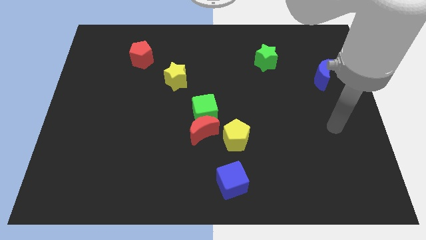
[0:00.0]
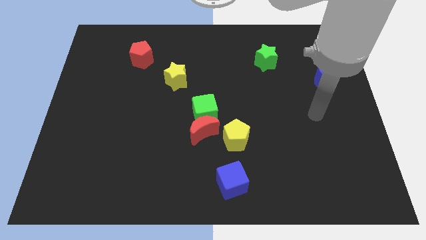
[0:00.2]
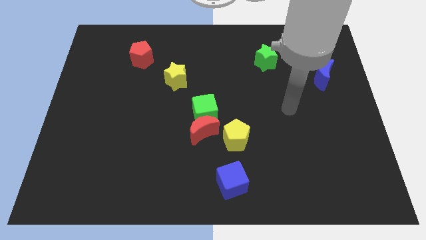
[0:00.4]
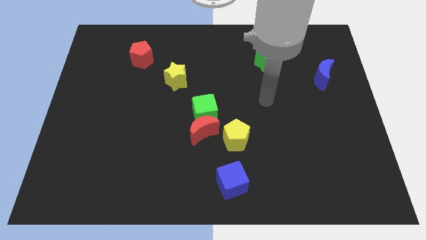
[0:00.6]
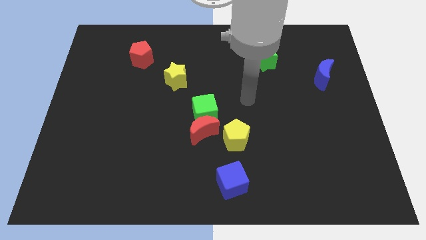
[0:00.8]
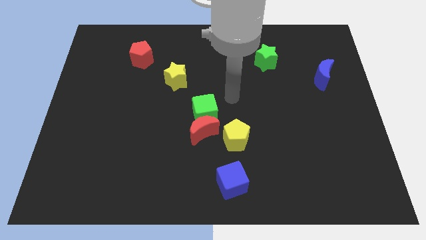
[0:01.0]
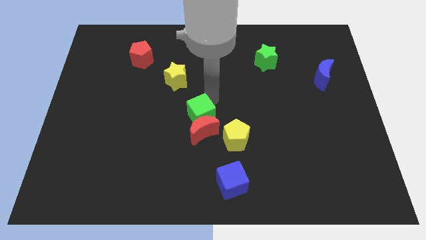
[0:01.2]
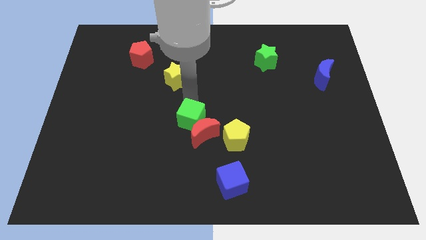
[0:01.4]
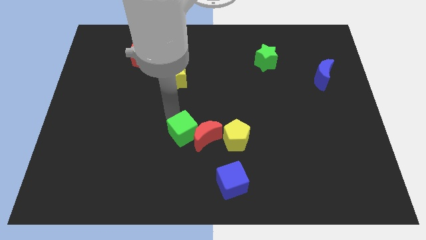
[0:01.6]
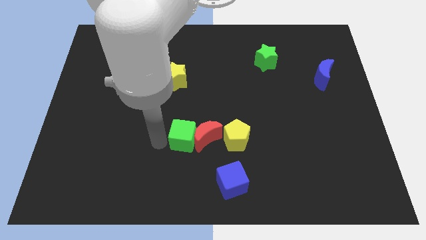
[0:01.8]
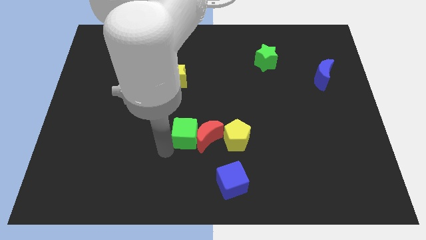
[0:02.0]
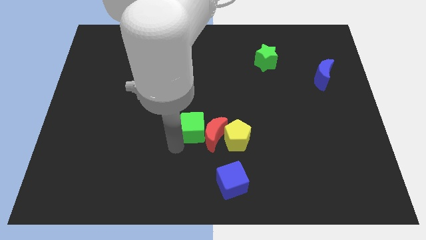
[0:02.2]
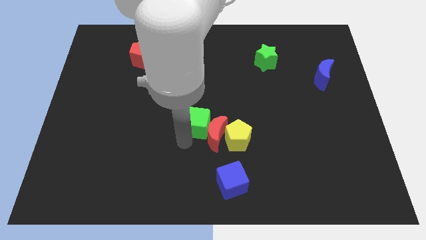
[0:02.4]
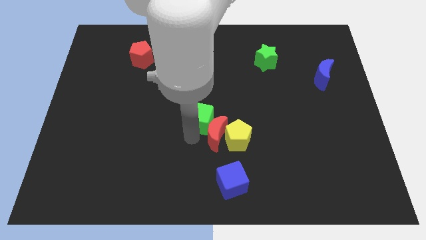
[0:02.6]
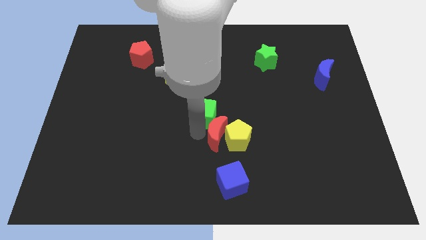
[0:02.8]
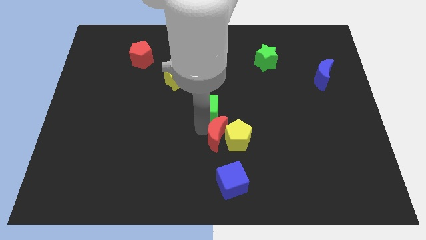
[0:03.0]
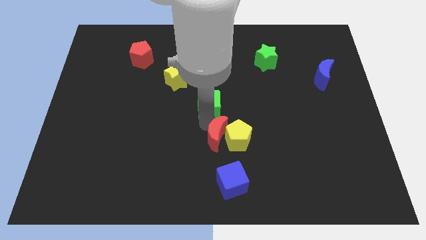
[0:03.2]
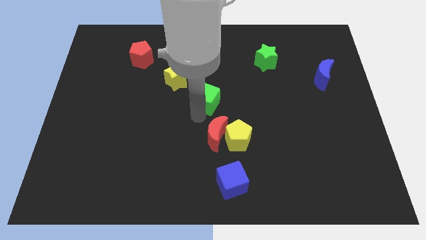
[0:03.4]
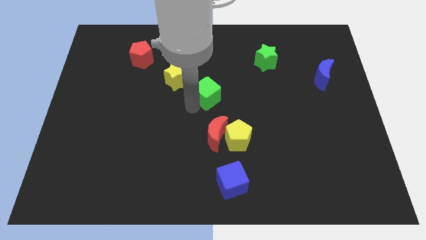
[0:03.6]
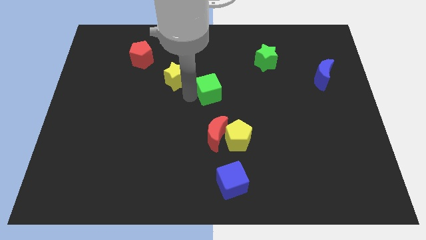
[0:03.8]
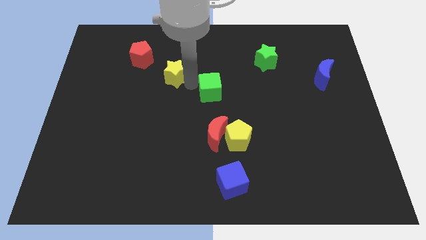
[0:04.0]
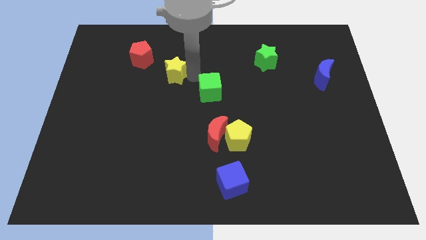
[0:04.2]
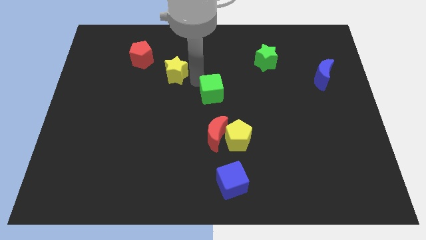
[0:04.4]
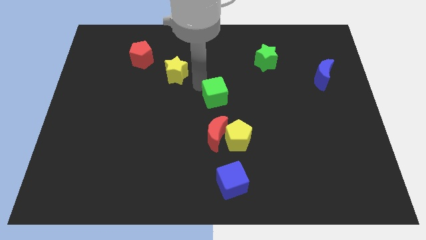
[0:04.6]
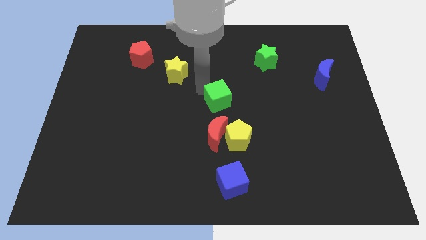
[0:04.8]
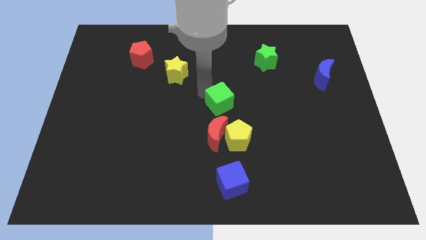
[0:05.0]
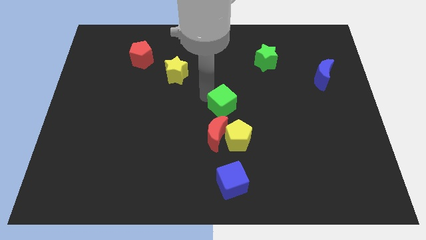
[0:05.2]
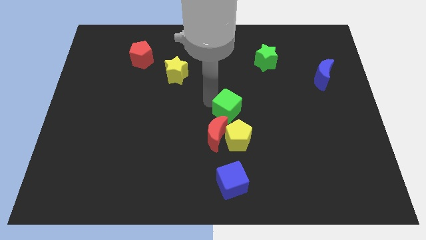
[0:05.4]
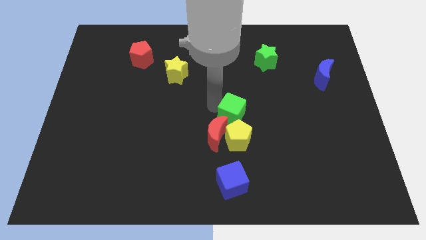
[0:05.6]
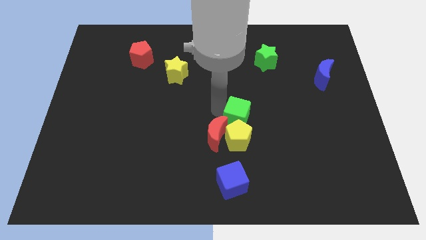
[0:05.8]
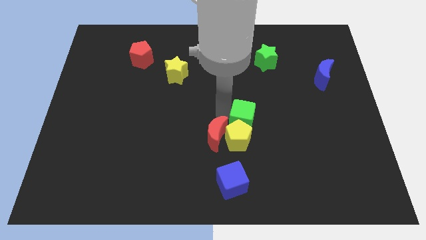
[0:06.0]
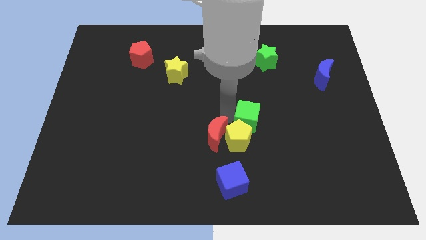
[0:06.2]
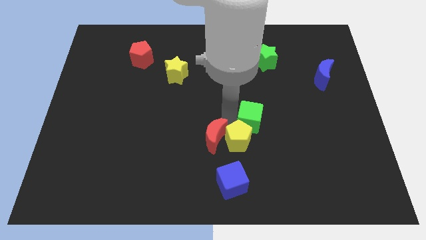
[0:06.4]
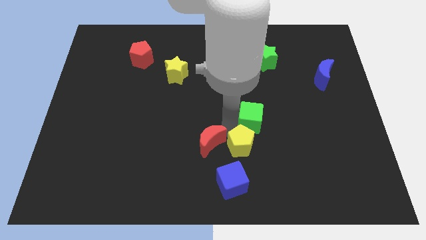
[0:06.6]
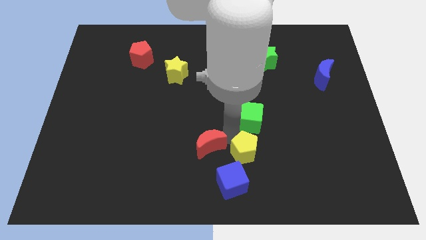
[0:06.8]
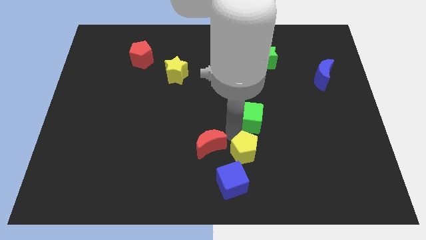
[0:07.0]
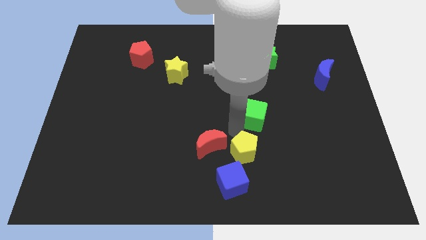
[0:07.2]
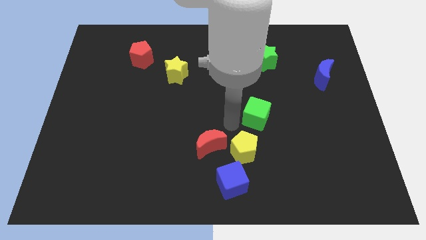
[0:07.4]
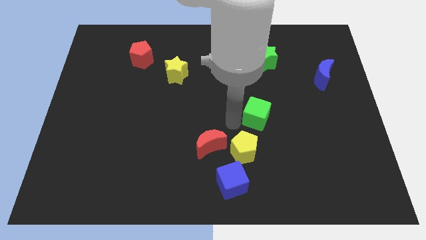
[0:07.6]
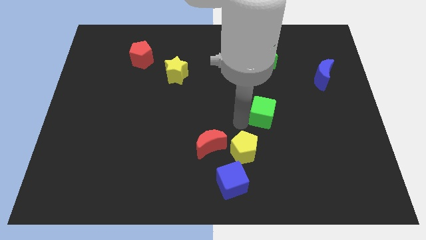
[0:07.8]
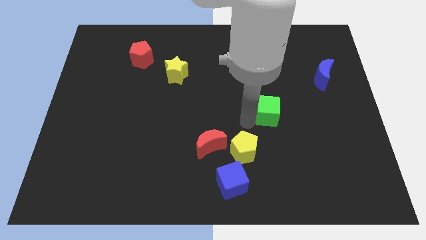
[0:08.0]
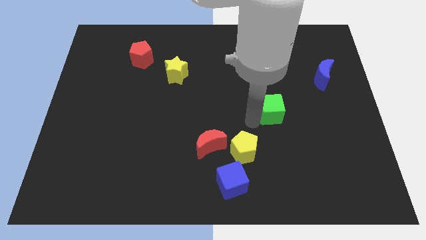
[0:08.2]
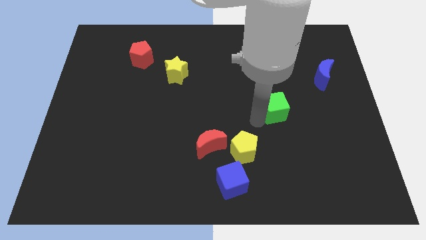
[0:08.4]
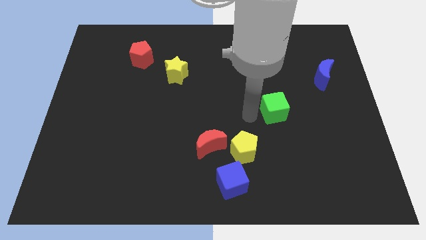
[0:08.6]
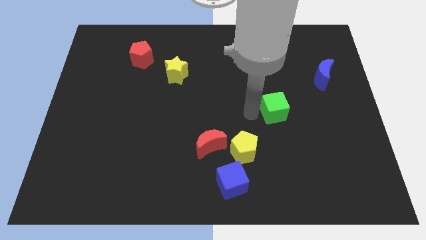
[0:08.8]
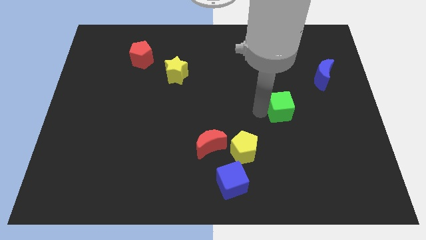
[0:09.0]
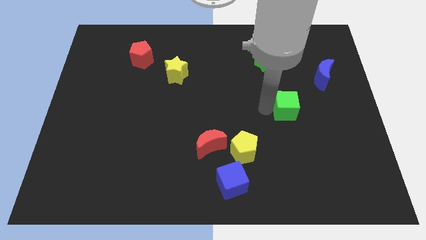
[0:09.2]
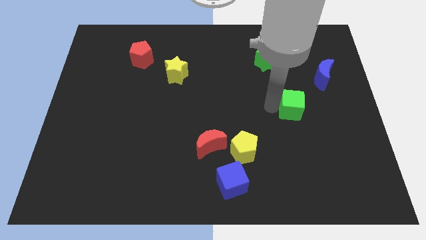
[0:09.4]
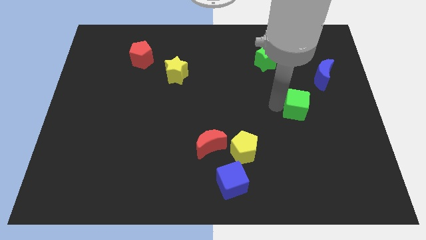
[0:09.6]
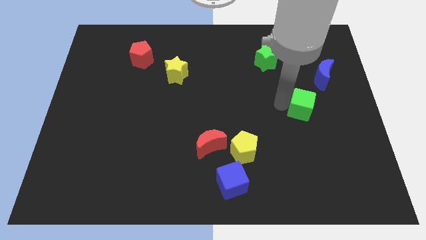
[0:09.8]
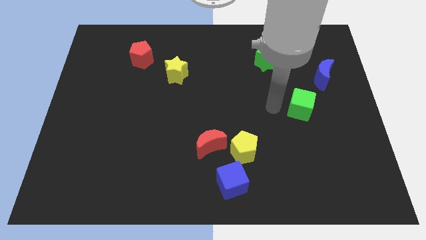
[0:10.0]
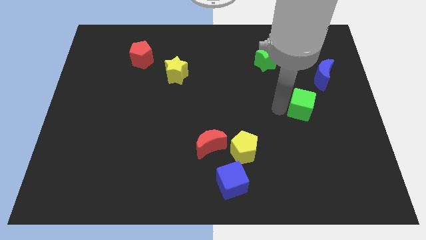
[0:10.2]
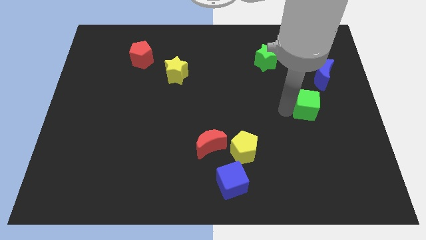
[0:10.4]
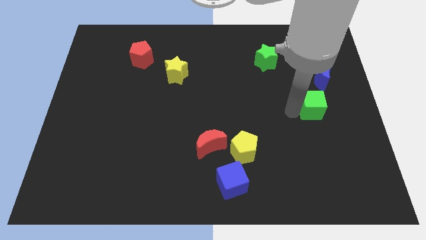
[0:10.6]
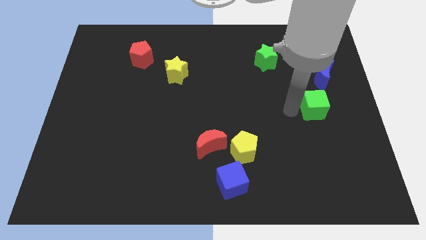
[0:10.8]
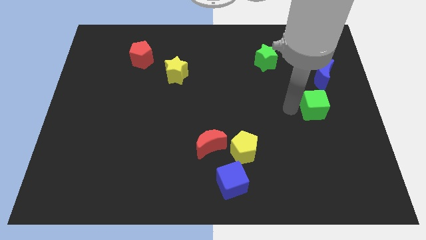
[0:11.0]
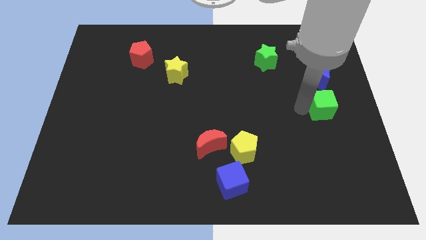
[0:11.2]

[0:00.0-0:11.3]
slide the green cube to the center right

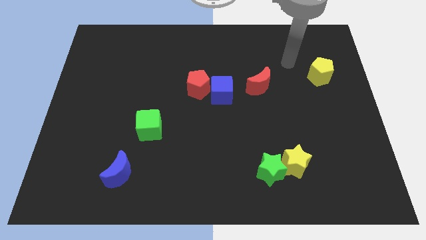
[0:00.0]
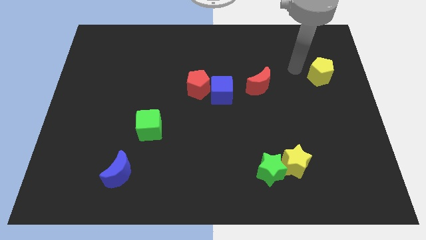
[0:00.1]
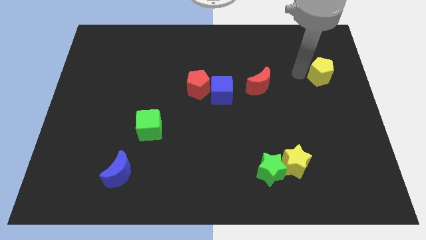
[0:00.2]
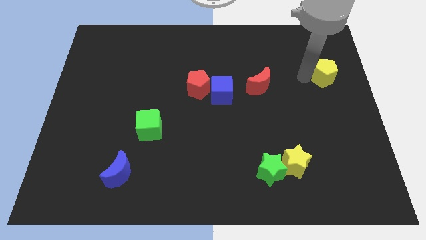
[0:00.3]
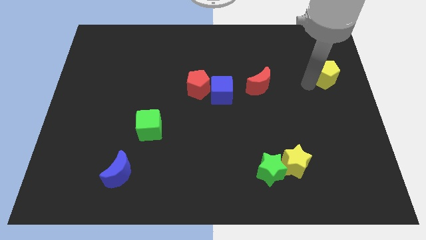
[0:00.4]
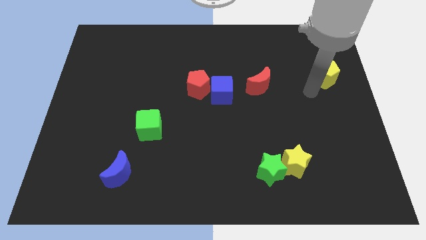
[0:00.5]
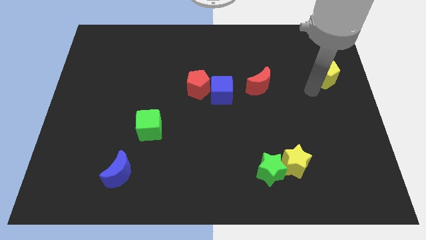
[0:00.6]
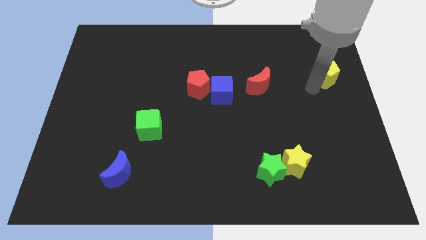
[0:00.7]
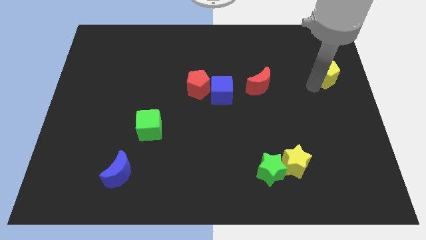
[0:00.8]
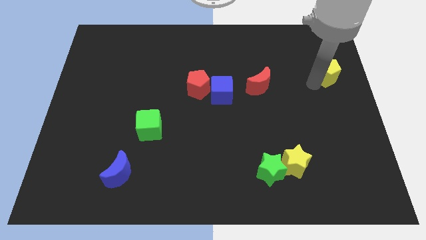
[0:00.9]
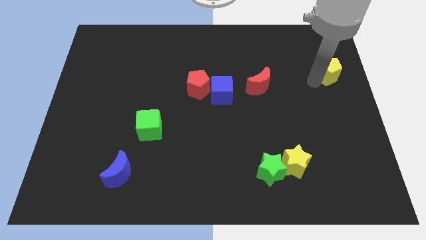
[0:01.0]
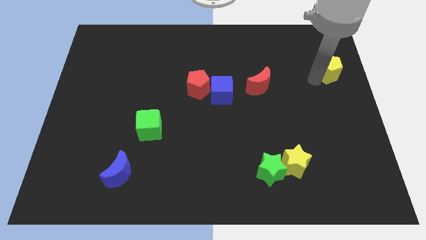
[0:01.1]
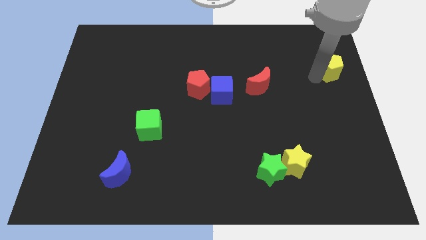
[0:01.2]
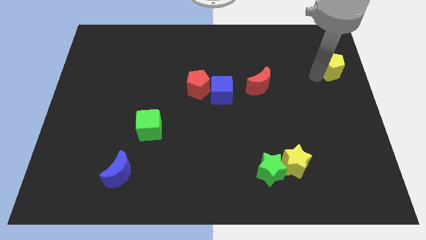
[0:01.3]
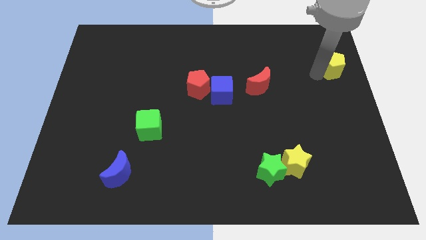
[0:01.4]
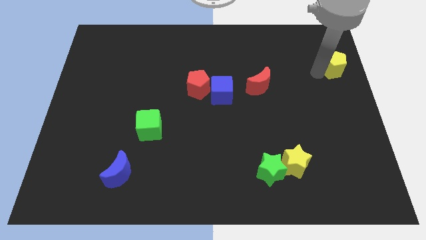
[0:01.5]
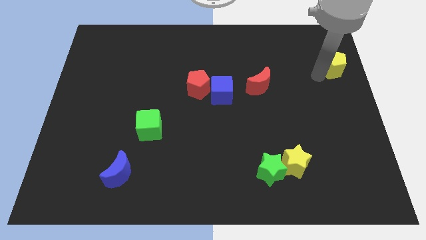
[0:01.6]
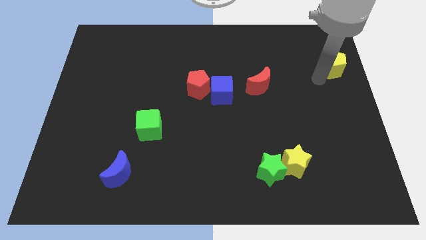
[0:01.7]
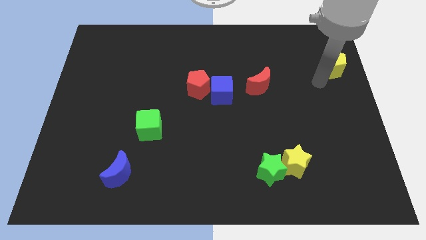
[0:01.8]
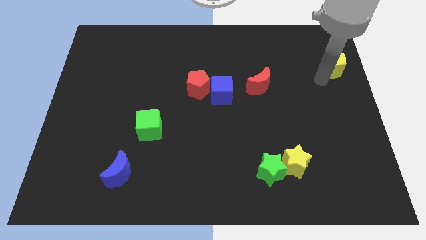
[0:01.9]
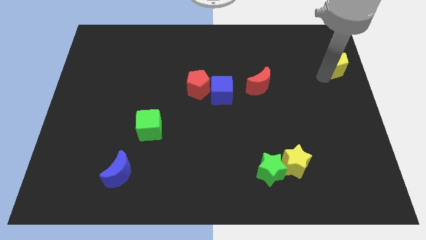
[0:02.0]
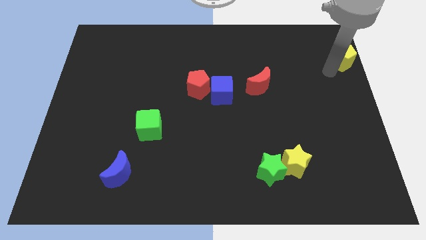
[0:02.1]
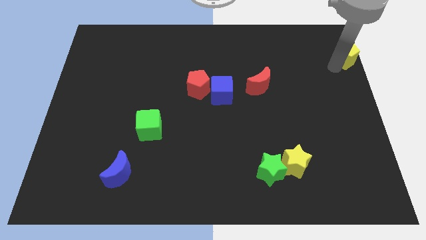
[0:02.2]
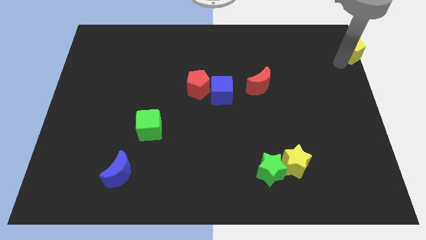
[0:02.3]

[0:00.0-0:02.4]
put the yellow pentagon to the top right of the board
